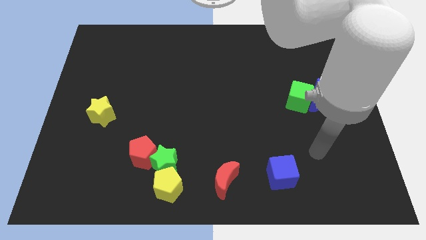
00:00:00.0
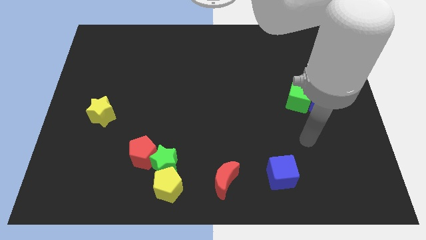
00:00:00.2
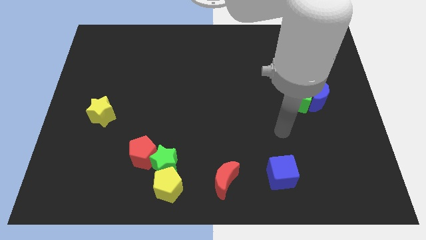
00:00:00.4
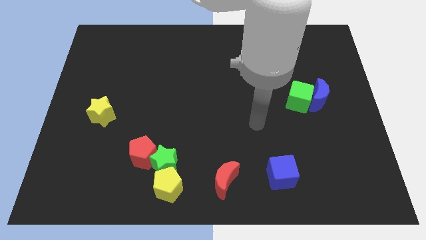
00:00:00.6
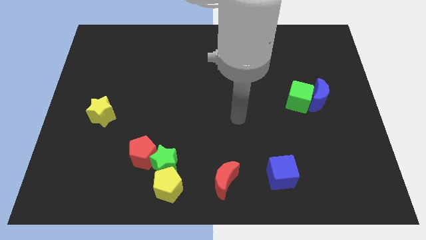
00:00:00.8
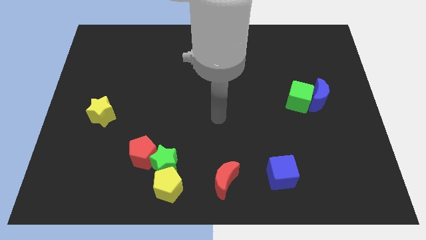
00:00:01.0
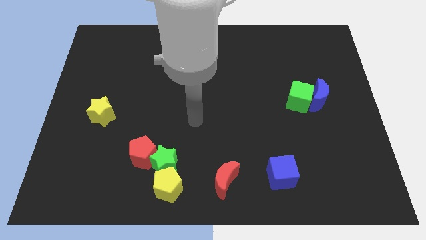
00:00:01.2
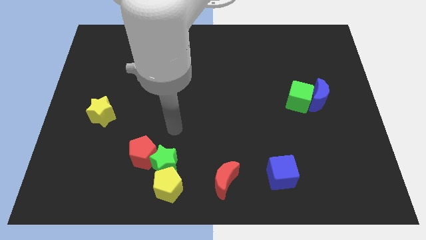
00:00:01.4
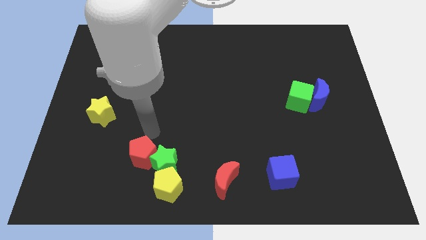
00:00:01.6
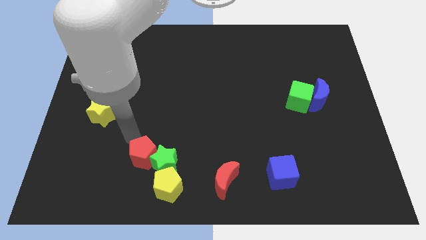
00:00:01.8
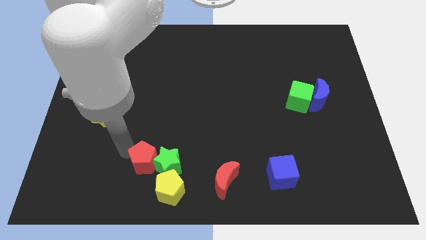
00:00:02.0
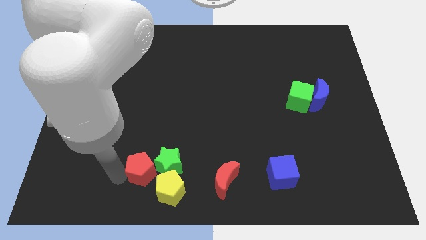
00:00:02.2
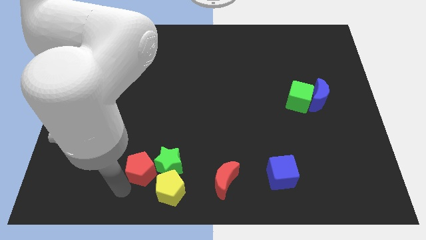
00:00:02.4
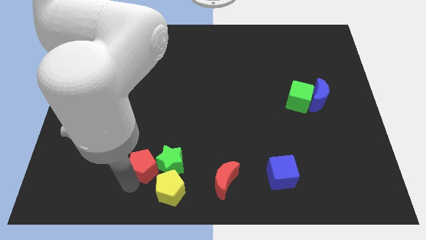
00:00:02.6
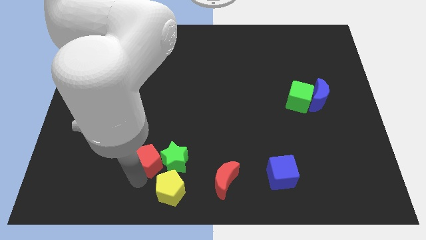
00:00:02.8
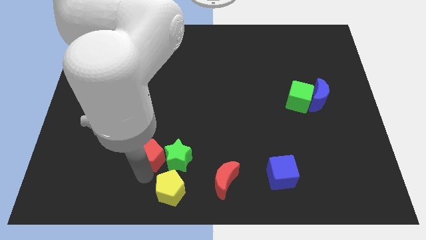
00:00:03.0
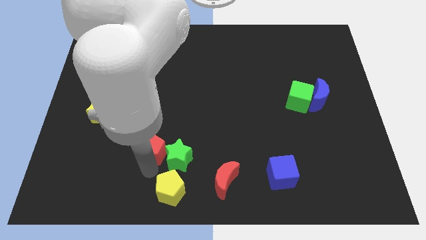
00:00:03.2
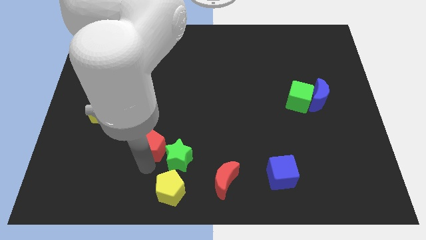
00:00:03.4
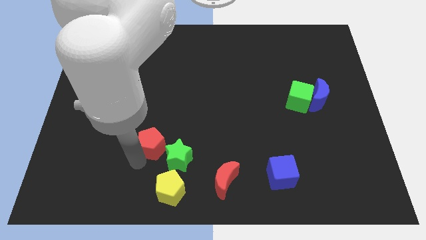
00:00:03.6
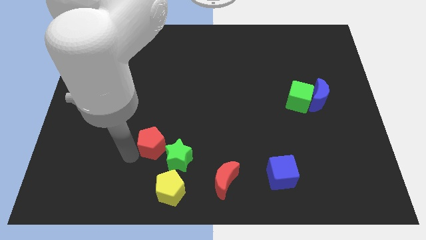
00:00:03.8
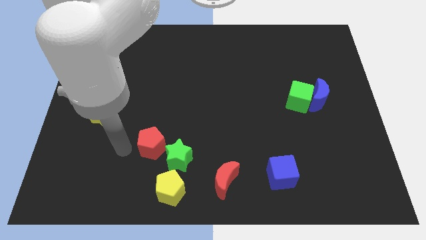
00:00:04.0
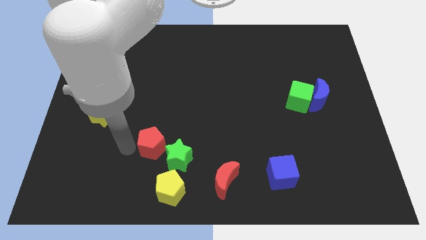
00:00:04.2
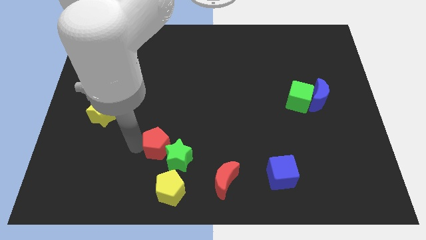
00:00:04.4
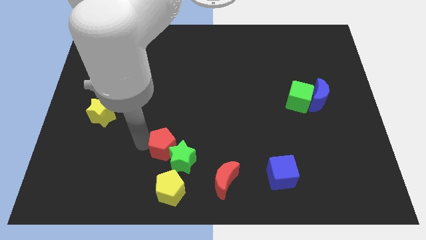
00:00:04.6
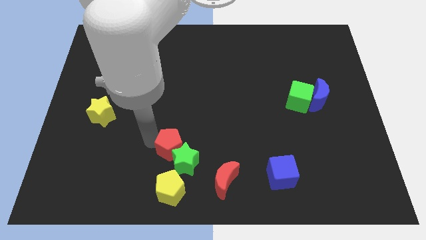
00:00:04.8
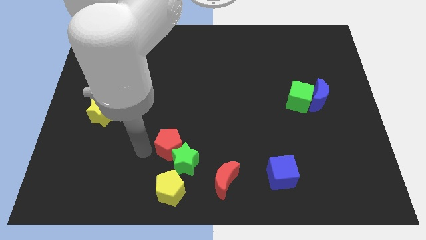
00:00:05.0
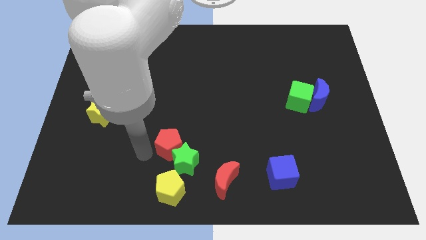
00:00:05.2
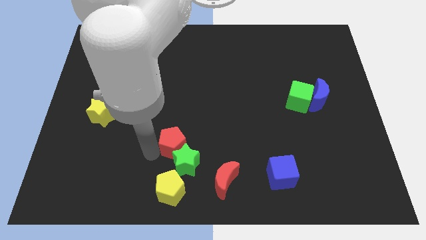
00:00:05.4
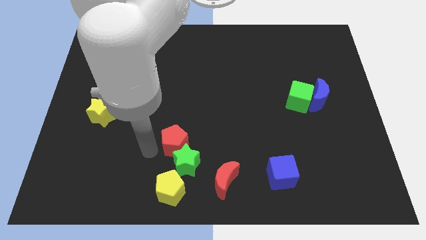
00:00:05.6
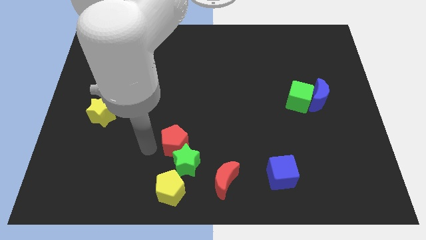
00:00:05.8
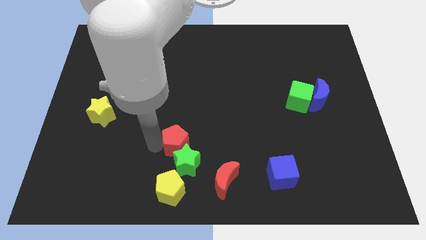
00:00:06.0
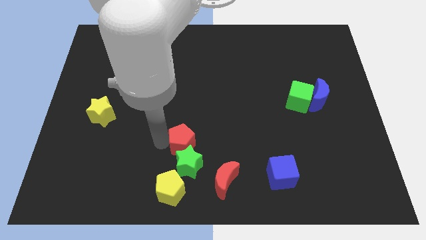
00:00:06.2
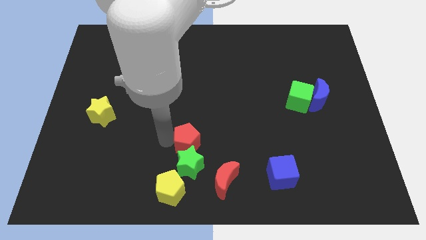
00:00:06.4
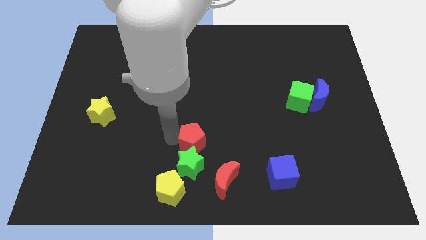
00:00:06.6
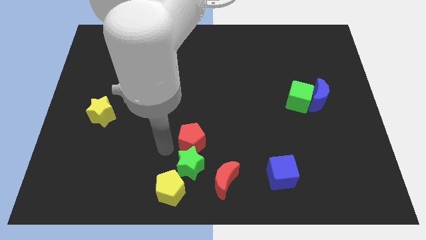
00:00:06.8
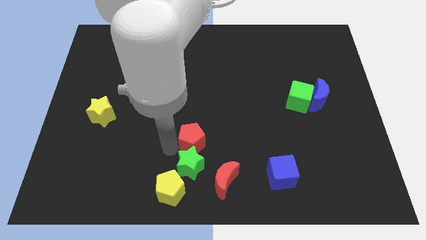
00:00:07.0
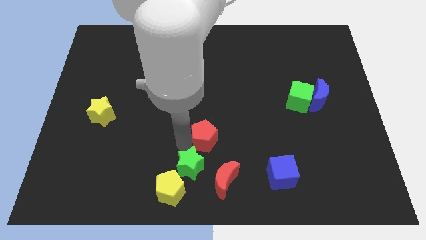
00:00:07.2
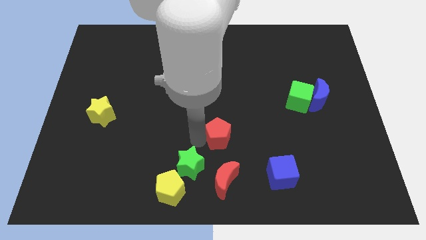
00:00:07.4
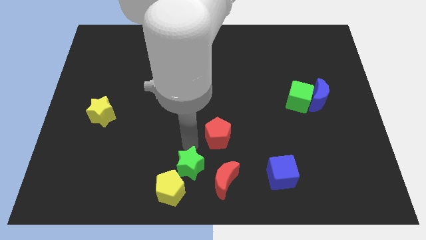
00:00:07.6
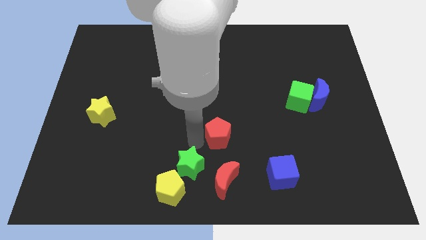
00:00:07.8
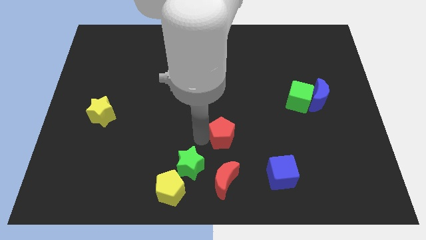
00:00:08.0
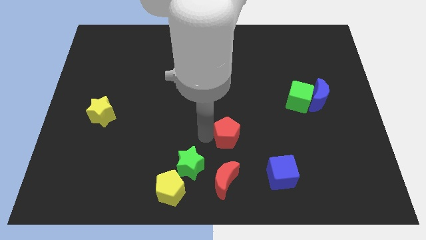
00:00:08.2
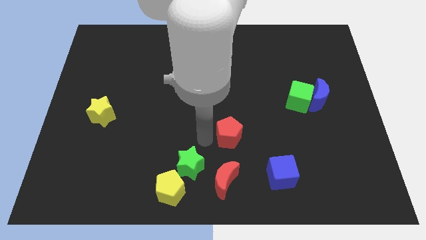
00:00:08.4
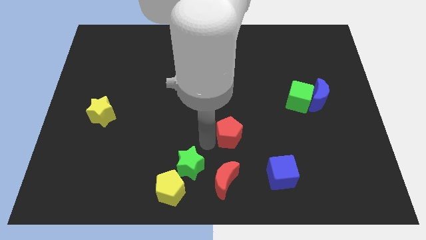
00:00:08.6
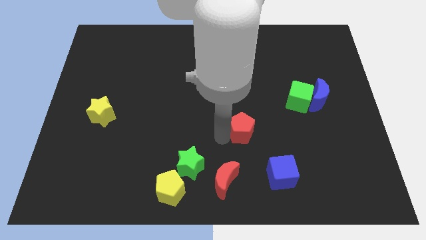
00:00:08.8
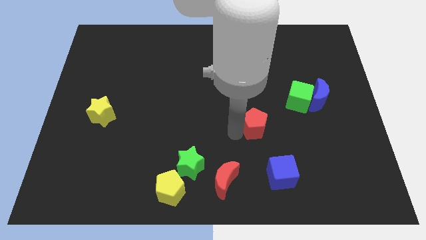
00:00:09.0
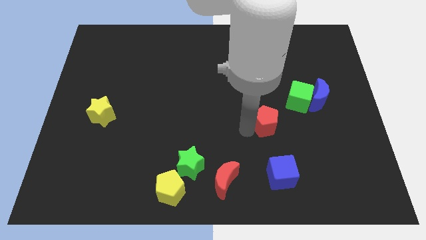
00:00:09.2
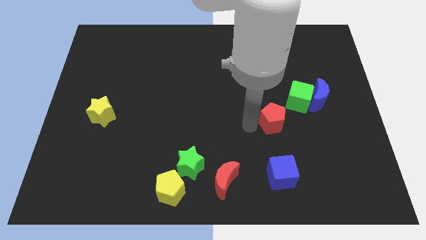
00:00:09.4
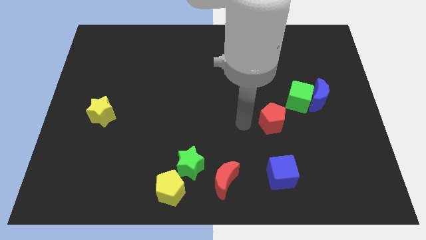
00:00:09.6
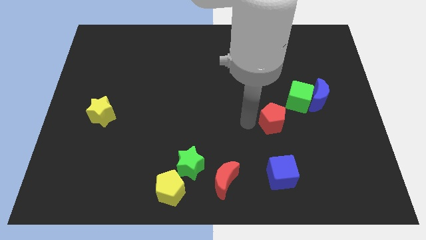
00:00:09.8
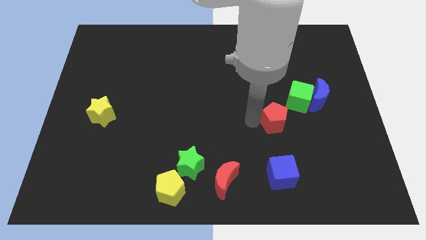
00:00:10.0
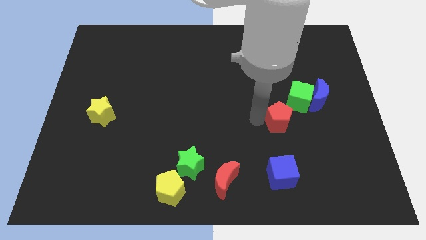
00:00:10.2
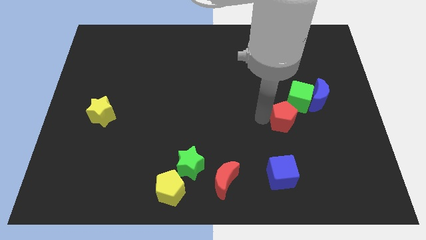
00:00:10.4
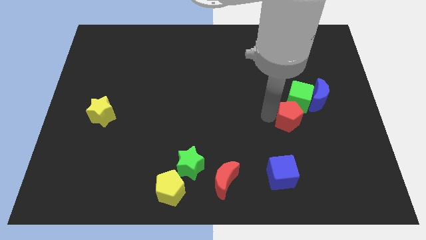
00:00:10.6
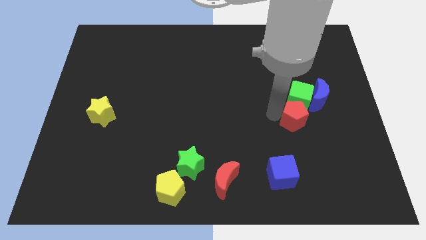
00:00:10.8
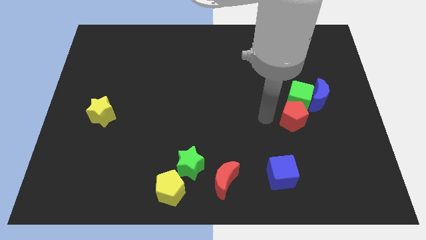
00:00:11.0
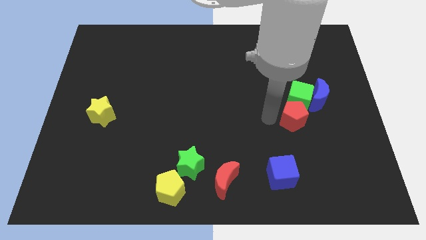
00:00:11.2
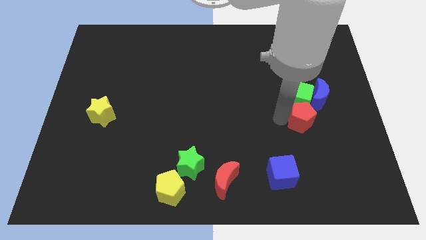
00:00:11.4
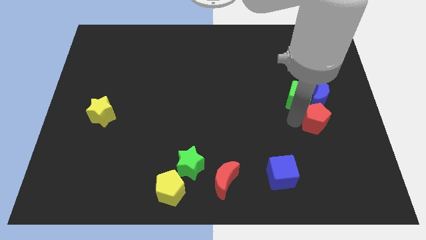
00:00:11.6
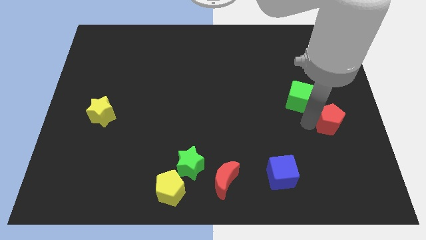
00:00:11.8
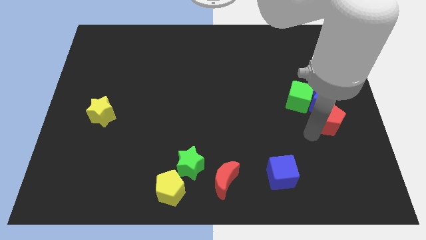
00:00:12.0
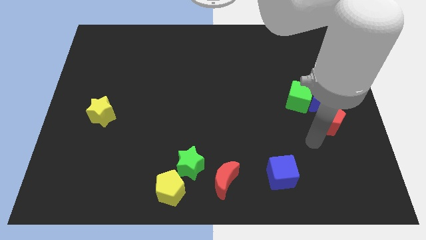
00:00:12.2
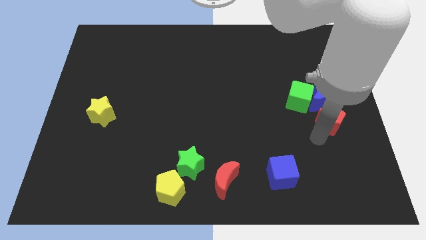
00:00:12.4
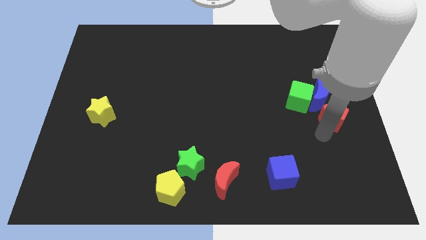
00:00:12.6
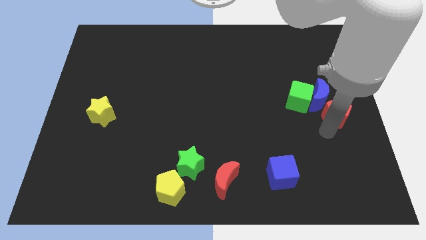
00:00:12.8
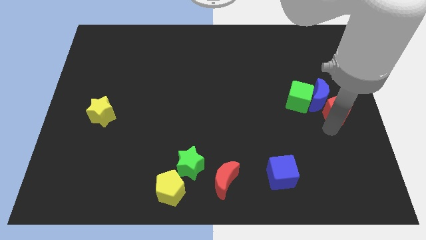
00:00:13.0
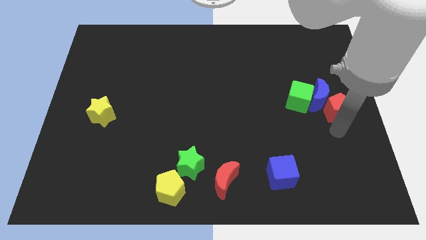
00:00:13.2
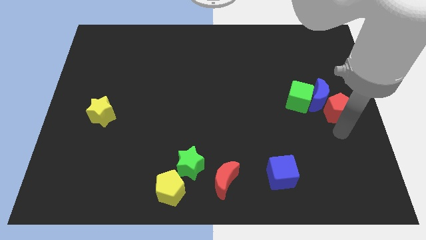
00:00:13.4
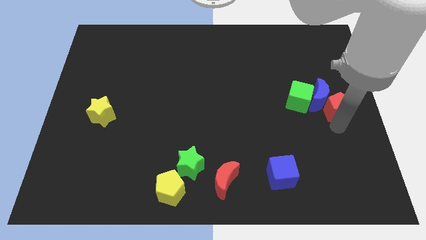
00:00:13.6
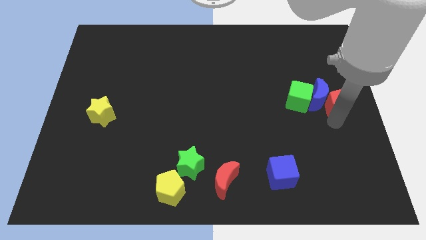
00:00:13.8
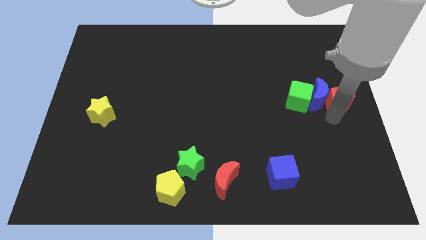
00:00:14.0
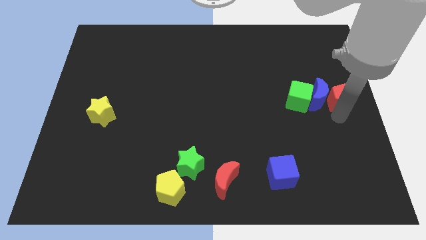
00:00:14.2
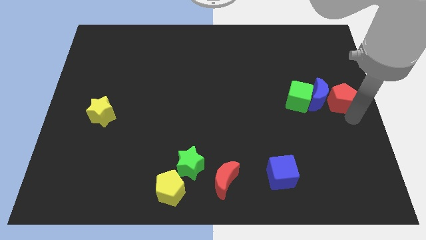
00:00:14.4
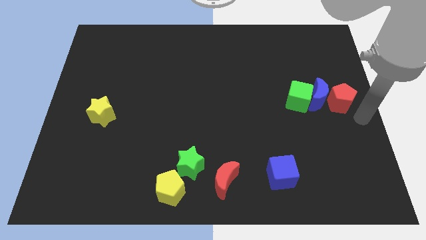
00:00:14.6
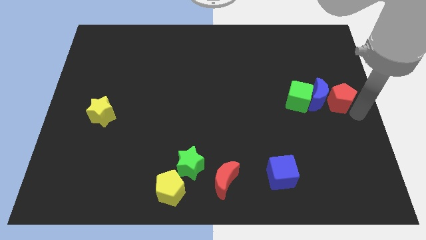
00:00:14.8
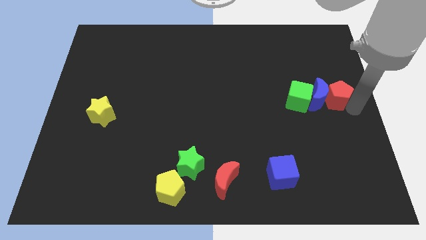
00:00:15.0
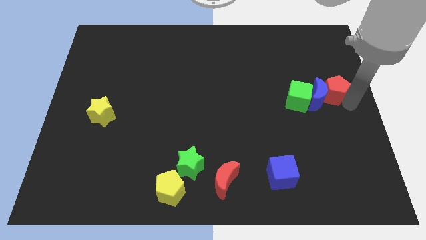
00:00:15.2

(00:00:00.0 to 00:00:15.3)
slide the red pentagon diagonally up and to the right of the green cube
